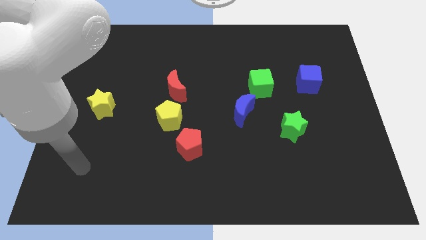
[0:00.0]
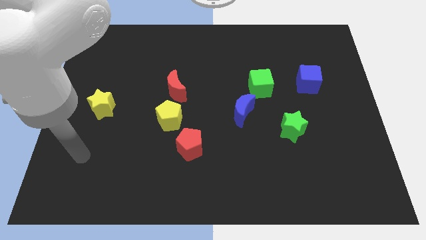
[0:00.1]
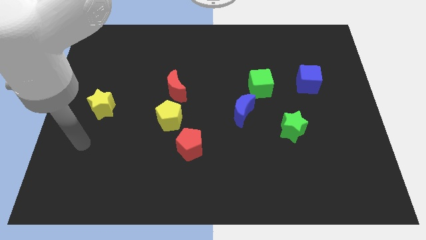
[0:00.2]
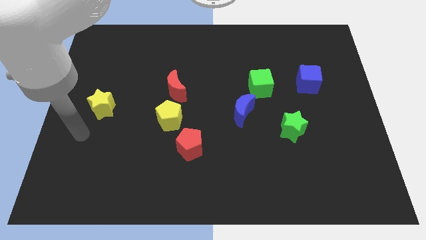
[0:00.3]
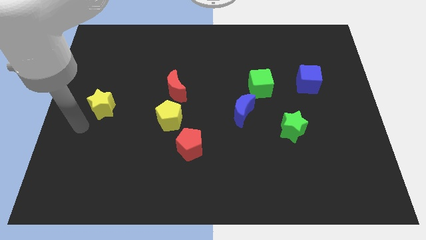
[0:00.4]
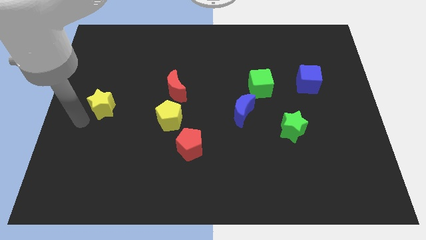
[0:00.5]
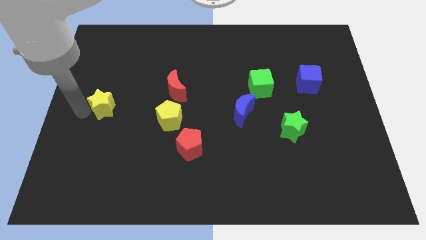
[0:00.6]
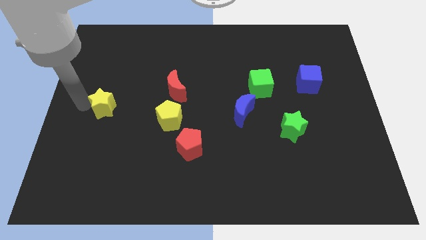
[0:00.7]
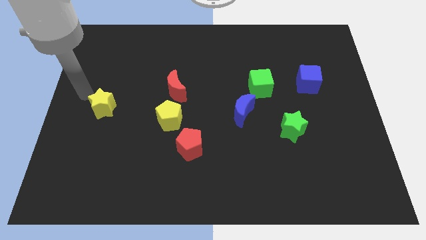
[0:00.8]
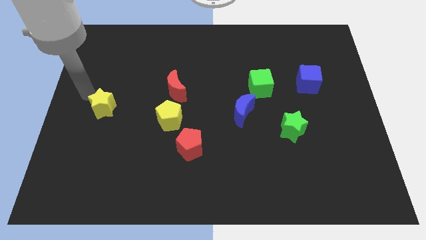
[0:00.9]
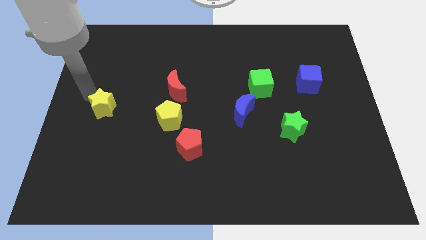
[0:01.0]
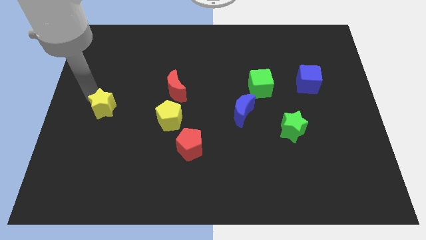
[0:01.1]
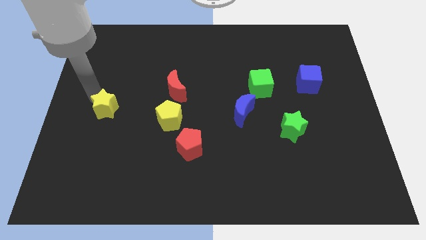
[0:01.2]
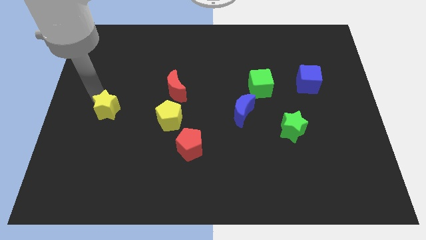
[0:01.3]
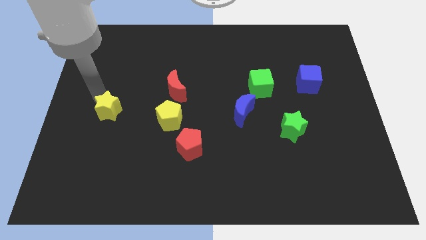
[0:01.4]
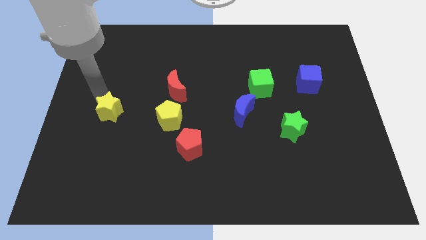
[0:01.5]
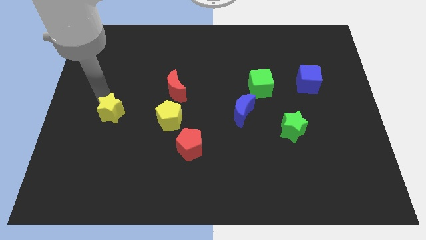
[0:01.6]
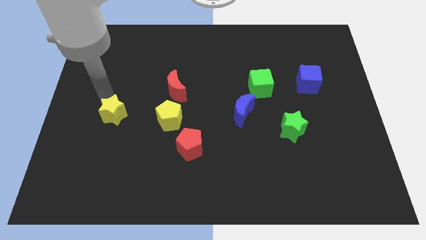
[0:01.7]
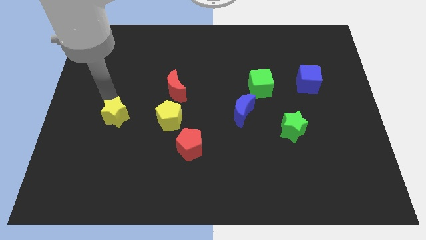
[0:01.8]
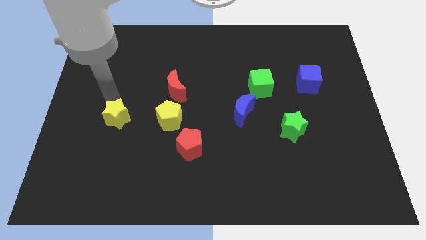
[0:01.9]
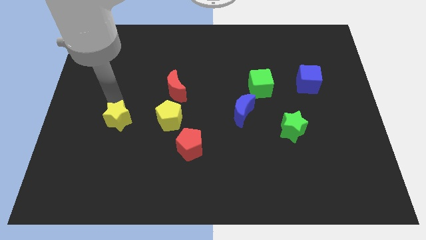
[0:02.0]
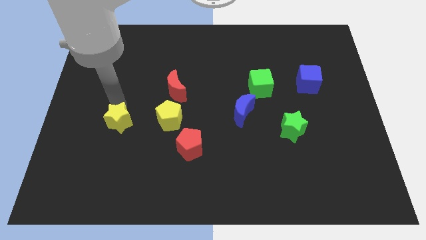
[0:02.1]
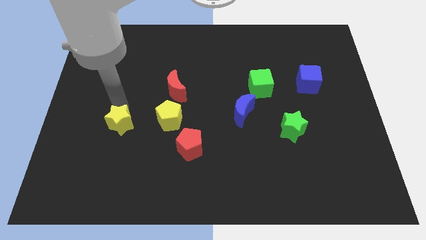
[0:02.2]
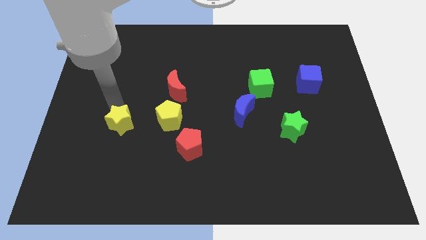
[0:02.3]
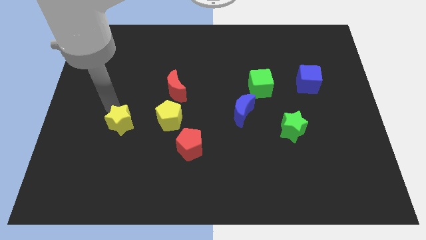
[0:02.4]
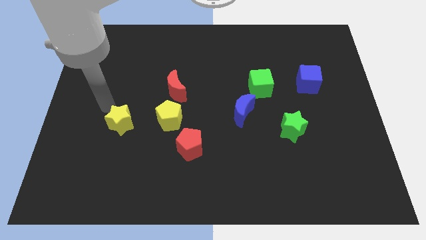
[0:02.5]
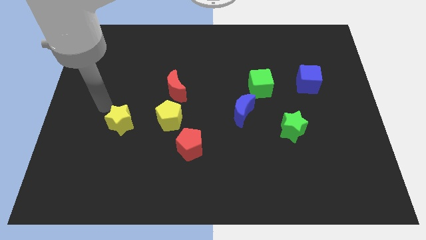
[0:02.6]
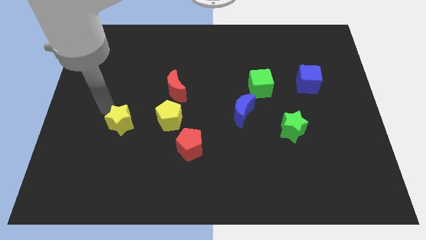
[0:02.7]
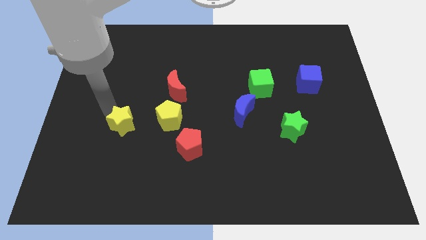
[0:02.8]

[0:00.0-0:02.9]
move the yellow star down and then right a little bit

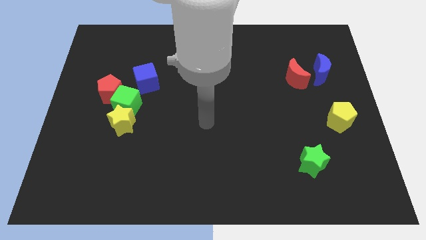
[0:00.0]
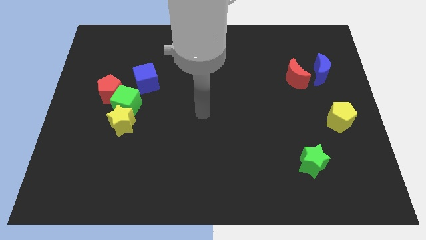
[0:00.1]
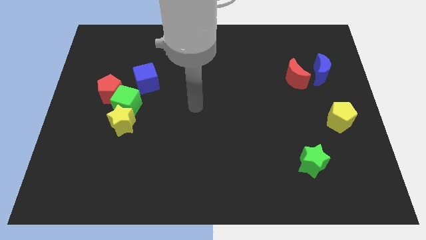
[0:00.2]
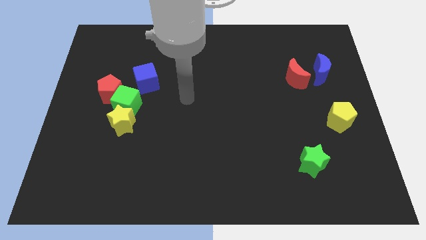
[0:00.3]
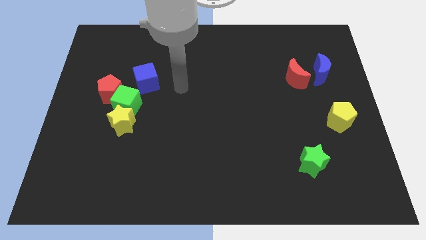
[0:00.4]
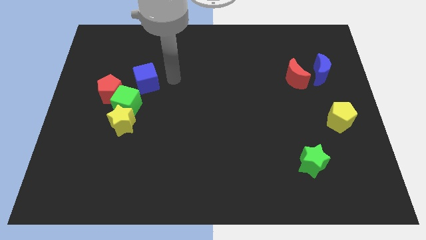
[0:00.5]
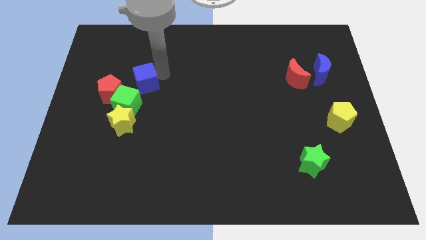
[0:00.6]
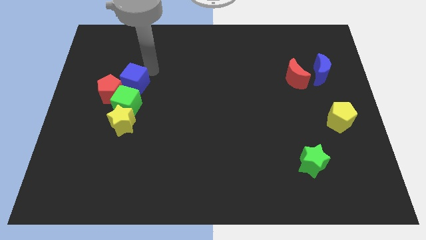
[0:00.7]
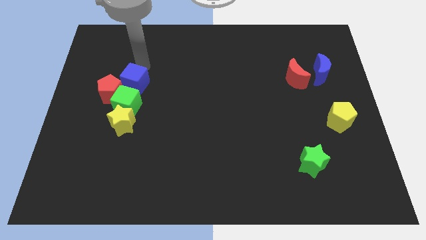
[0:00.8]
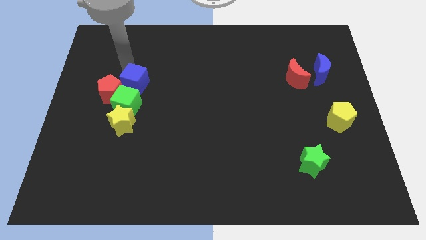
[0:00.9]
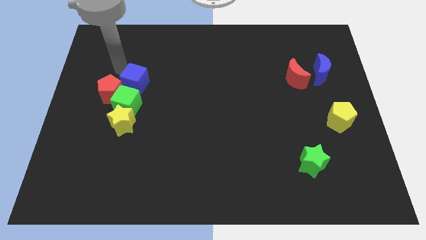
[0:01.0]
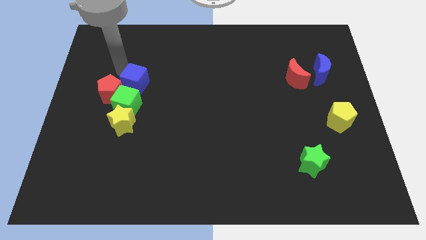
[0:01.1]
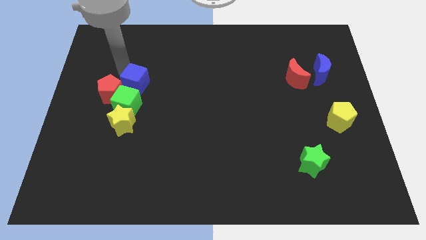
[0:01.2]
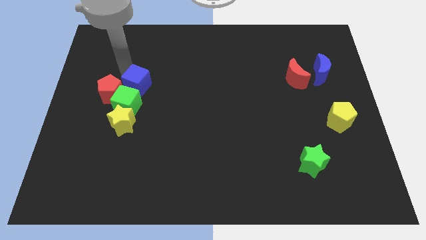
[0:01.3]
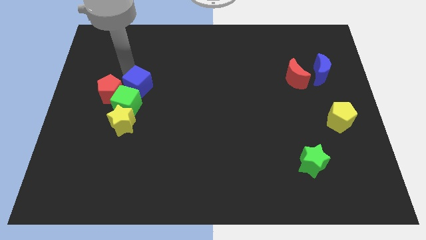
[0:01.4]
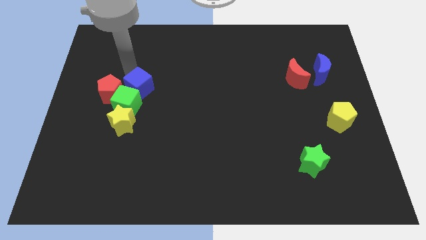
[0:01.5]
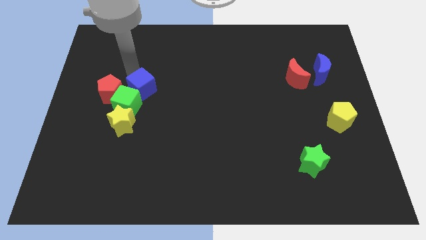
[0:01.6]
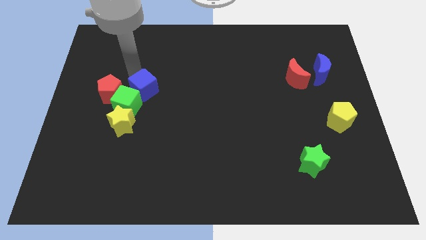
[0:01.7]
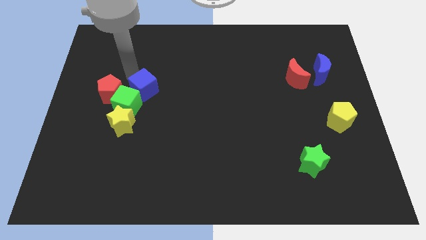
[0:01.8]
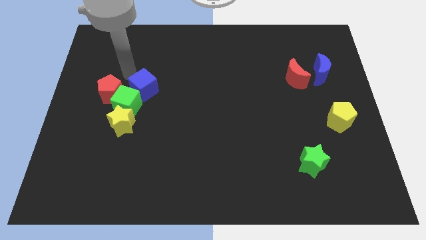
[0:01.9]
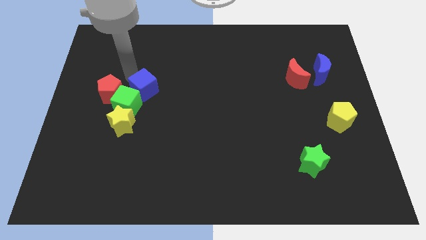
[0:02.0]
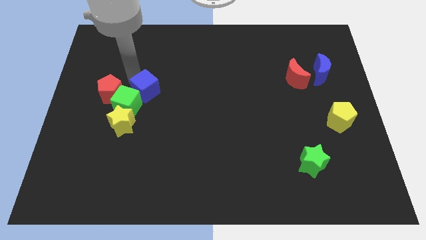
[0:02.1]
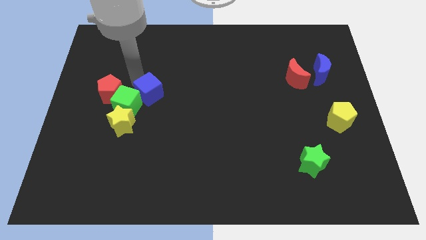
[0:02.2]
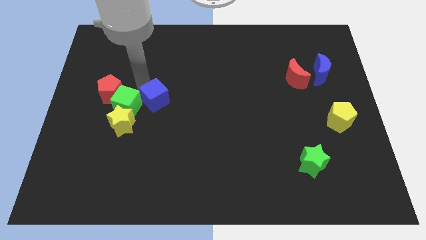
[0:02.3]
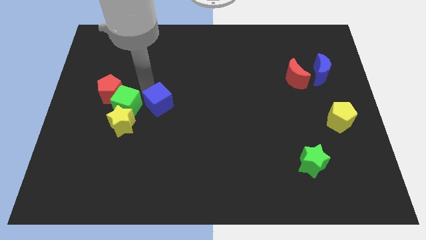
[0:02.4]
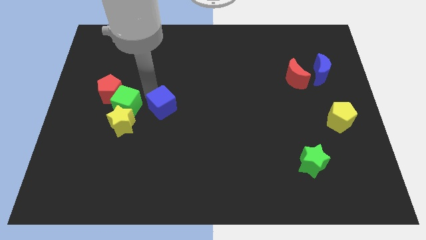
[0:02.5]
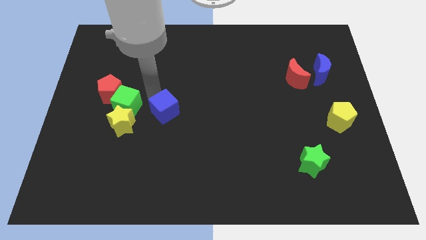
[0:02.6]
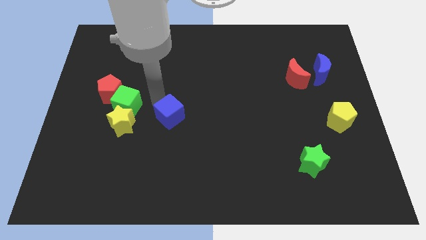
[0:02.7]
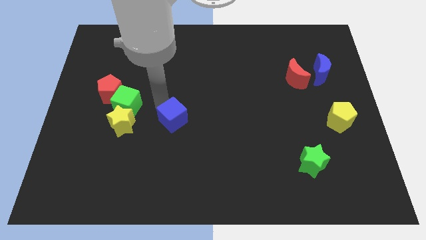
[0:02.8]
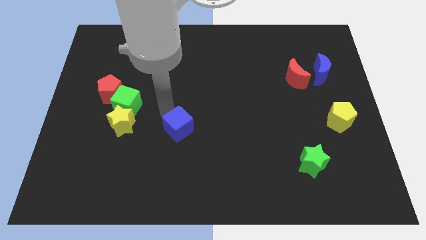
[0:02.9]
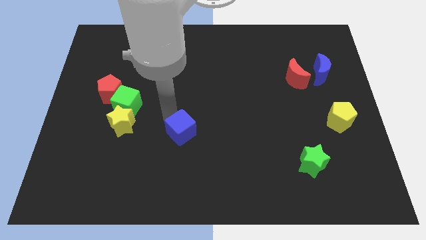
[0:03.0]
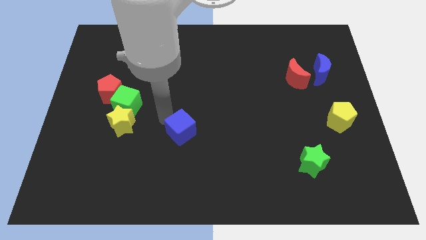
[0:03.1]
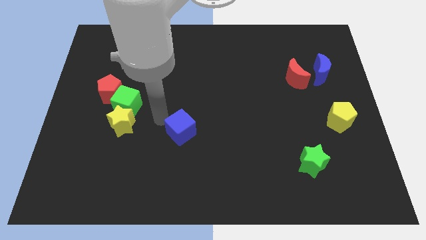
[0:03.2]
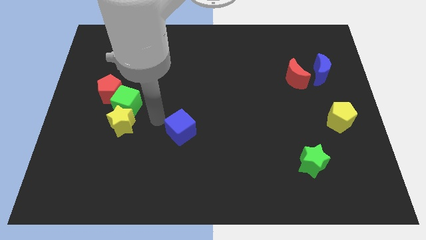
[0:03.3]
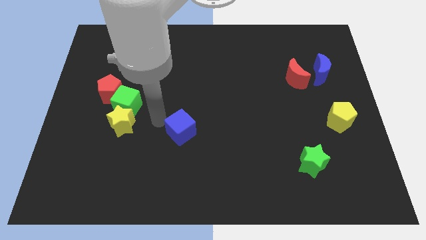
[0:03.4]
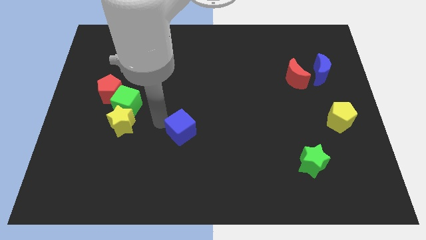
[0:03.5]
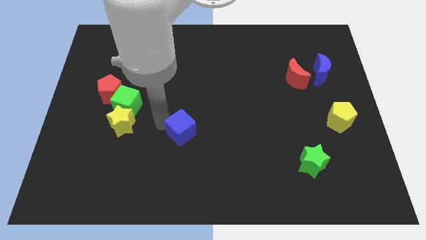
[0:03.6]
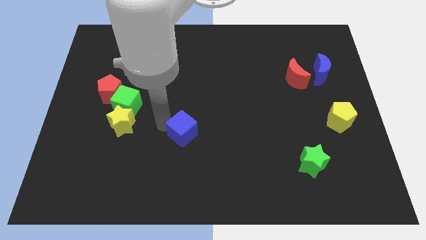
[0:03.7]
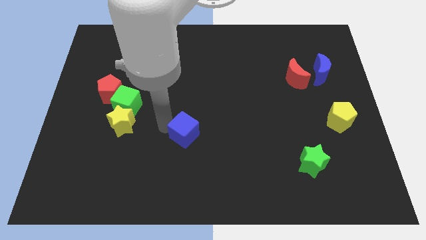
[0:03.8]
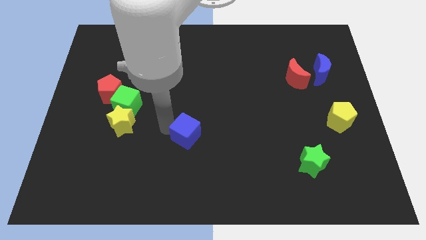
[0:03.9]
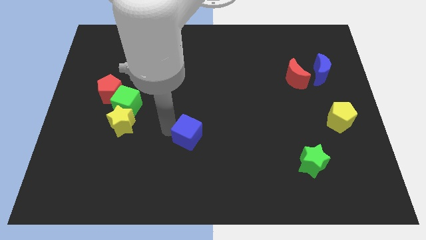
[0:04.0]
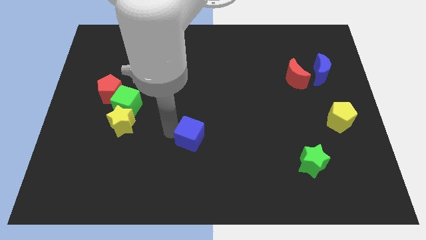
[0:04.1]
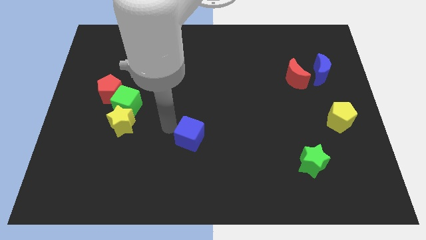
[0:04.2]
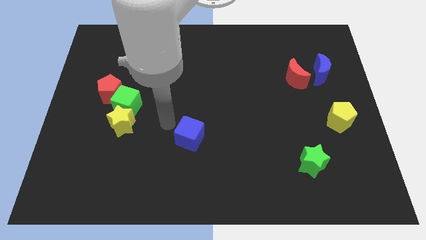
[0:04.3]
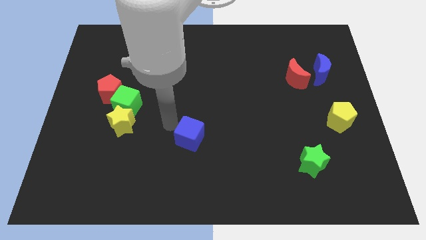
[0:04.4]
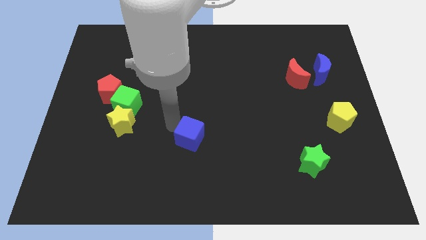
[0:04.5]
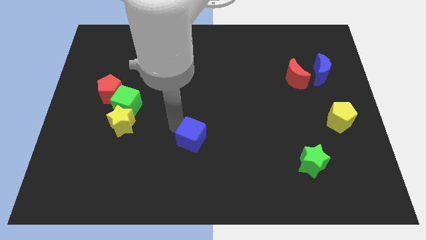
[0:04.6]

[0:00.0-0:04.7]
push the blue cube down and then right

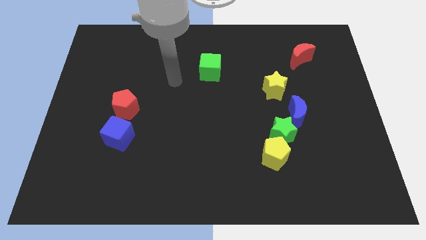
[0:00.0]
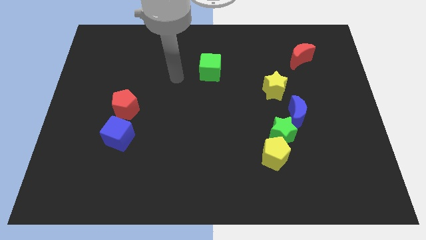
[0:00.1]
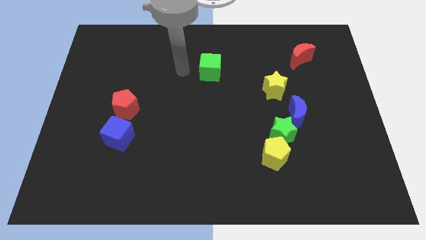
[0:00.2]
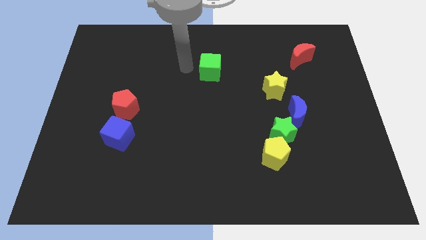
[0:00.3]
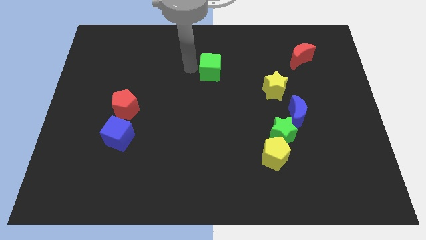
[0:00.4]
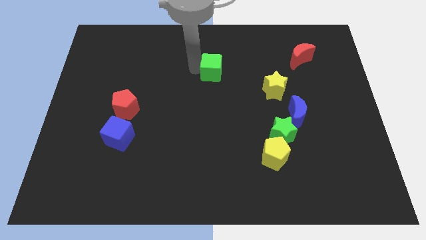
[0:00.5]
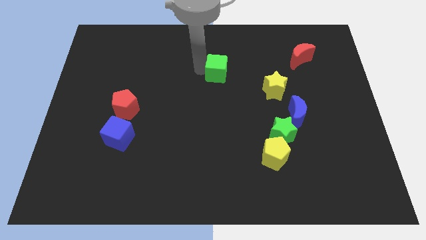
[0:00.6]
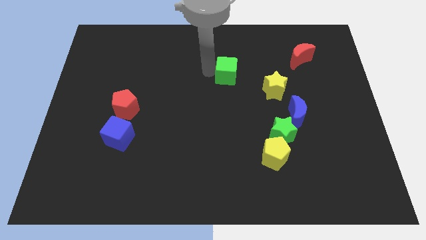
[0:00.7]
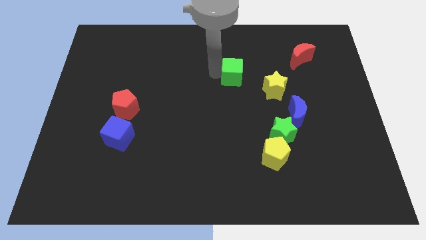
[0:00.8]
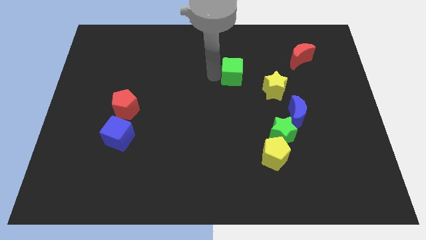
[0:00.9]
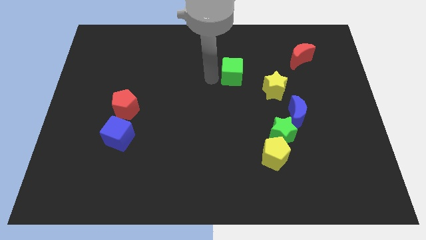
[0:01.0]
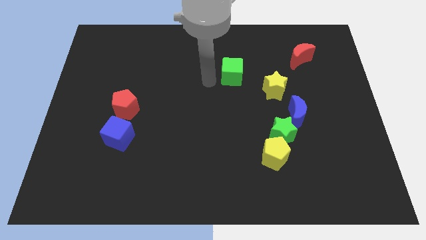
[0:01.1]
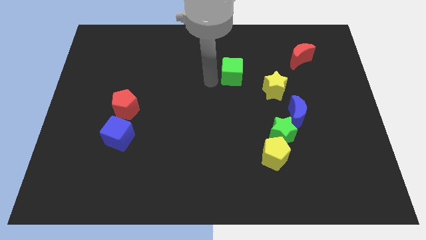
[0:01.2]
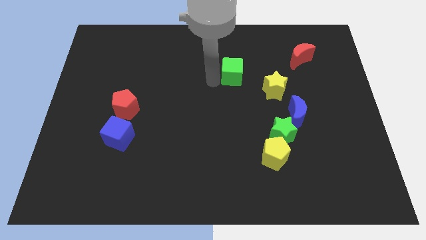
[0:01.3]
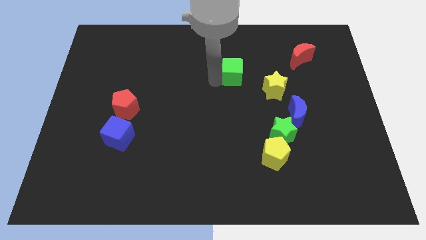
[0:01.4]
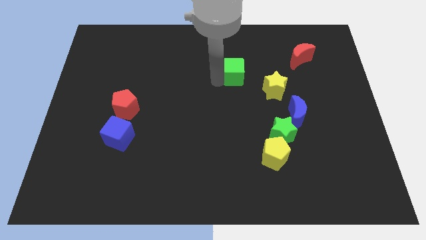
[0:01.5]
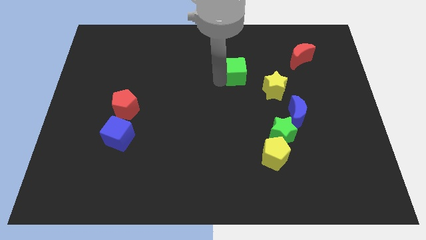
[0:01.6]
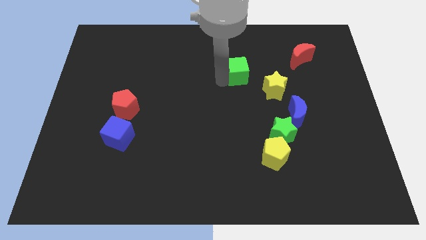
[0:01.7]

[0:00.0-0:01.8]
push the green cube slightly right
